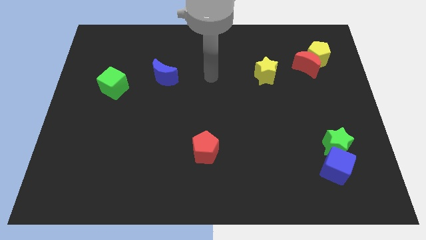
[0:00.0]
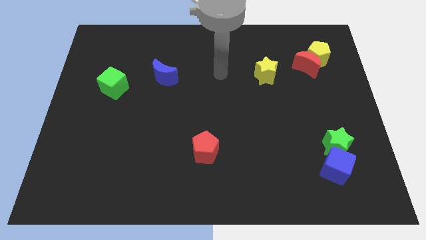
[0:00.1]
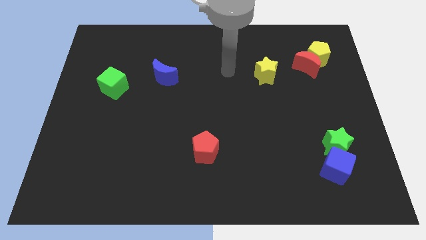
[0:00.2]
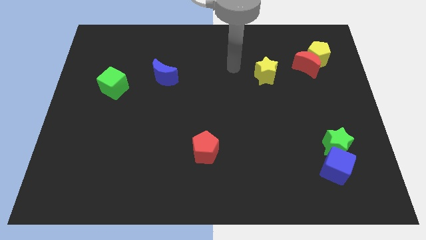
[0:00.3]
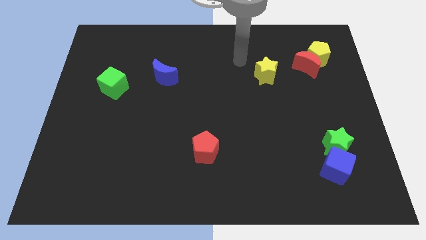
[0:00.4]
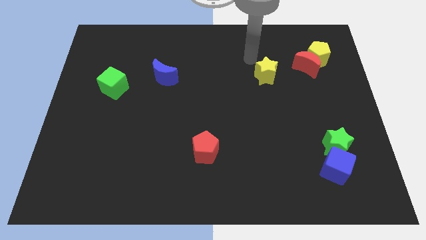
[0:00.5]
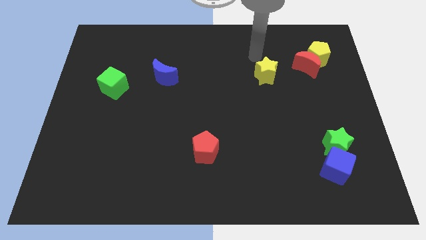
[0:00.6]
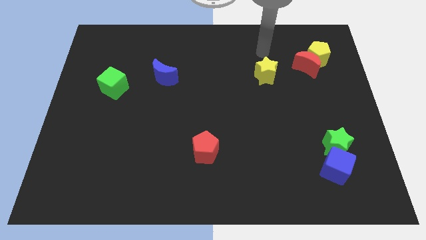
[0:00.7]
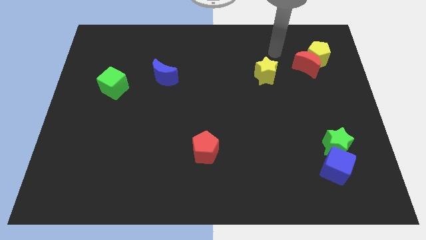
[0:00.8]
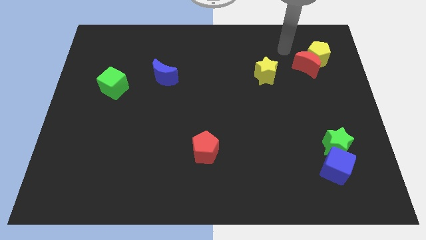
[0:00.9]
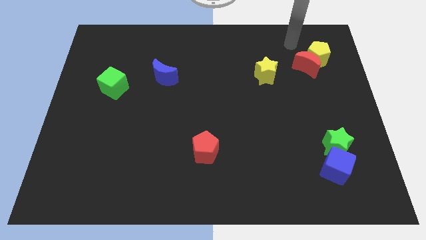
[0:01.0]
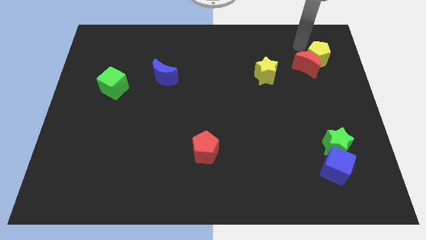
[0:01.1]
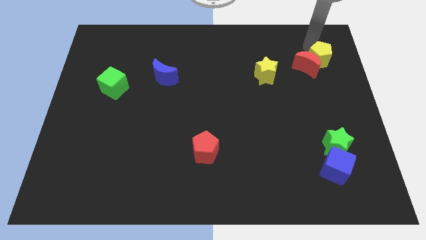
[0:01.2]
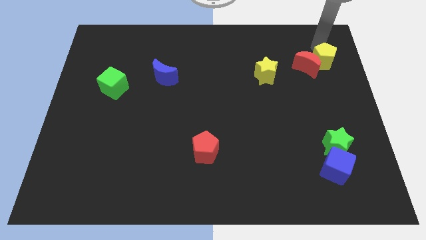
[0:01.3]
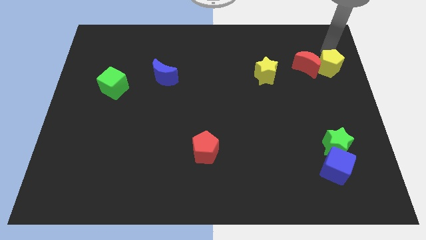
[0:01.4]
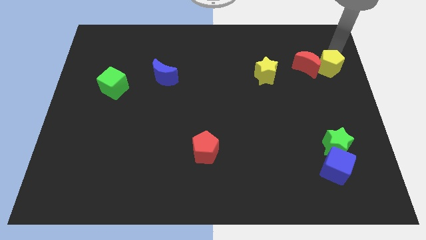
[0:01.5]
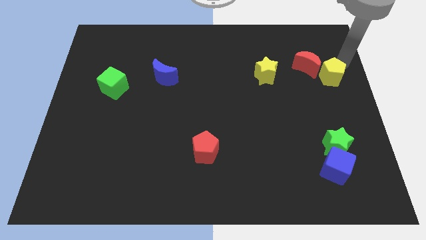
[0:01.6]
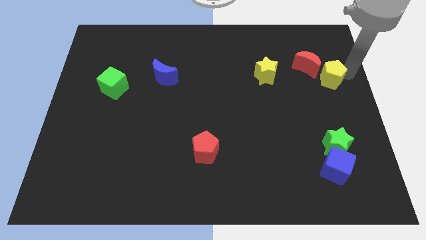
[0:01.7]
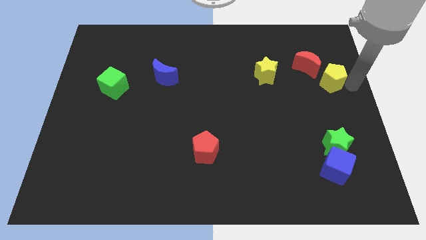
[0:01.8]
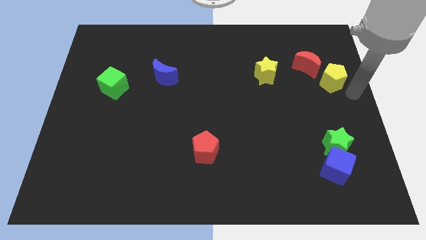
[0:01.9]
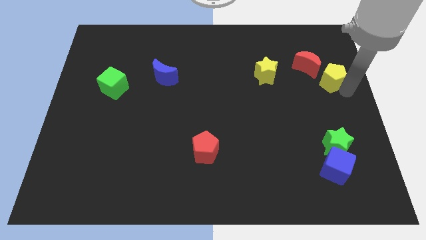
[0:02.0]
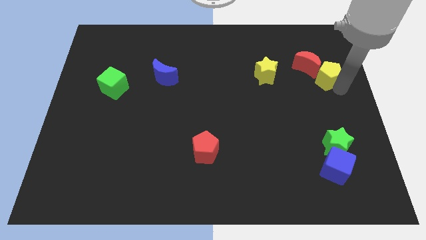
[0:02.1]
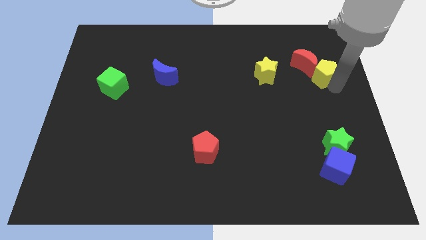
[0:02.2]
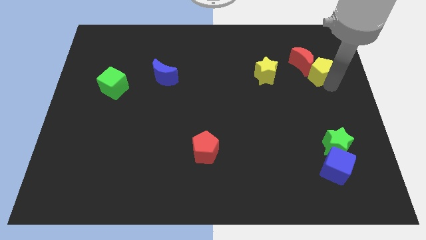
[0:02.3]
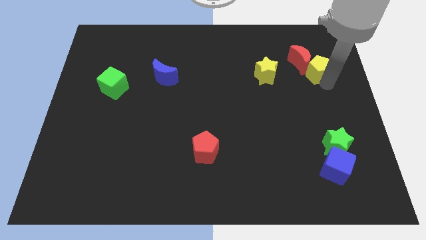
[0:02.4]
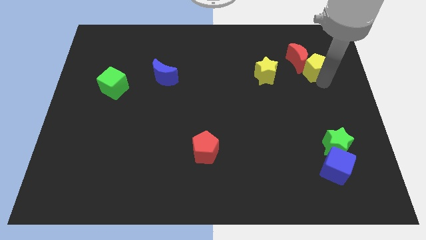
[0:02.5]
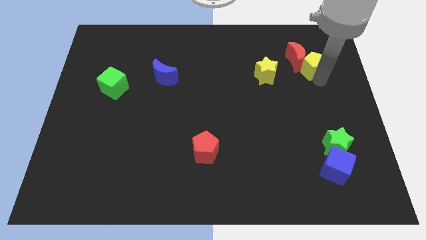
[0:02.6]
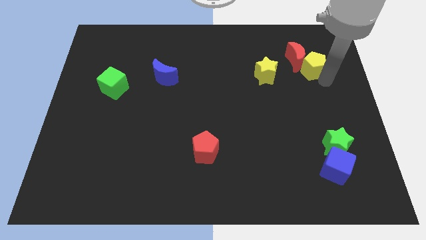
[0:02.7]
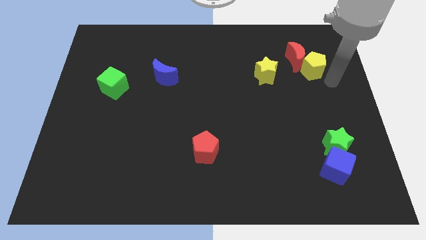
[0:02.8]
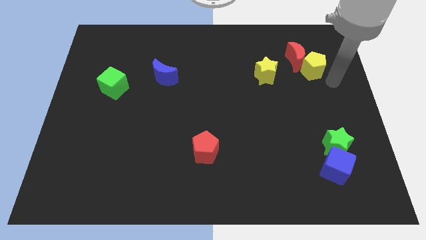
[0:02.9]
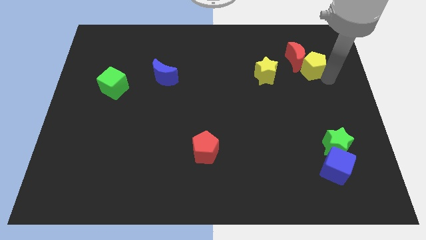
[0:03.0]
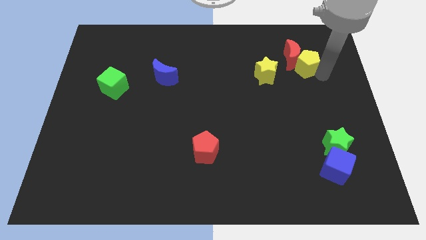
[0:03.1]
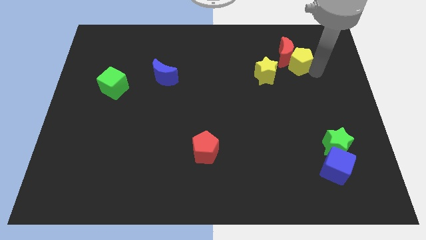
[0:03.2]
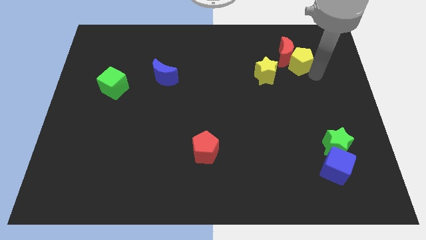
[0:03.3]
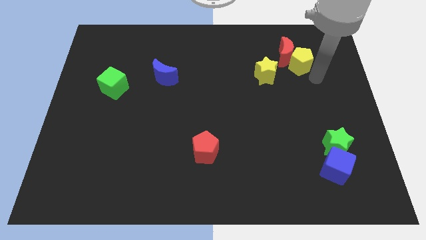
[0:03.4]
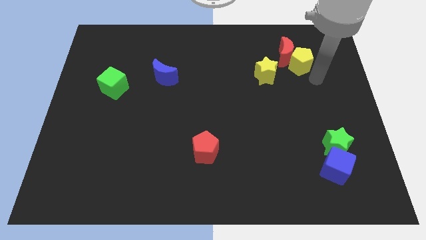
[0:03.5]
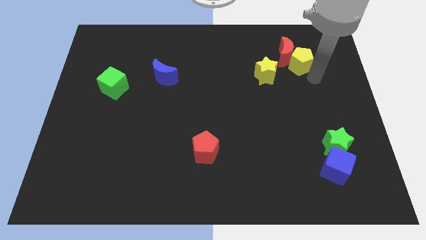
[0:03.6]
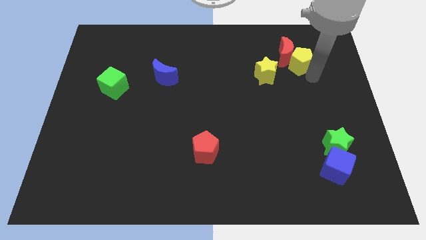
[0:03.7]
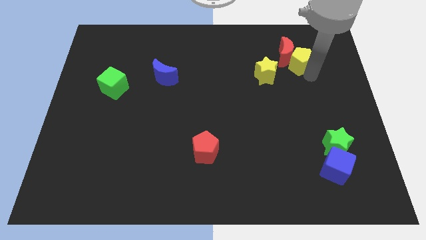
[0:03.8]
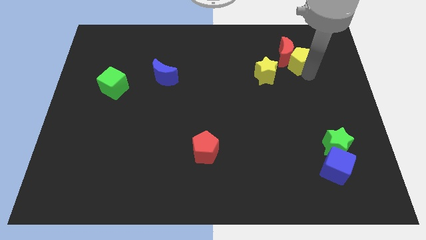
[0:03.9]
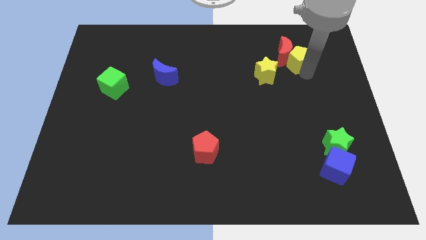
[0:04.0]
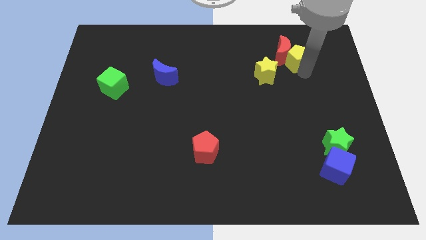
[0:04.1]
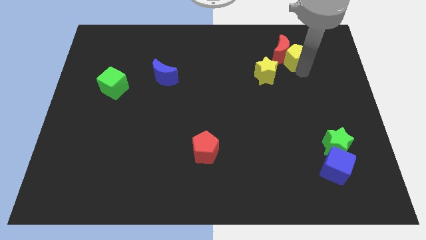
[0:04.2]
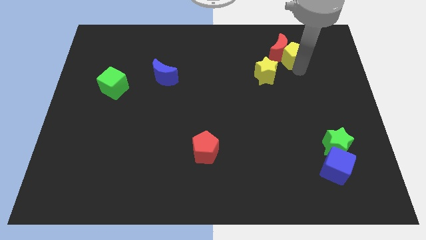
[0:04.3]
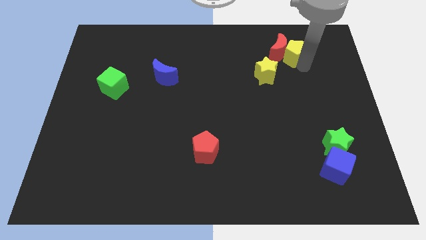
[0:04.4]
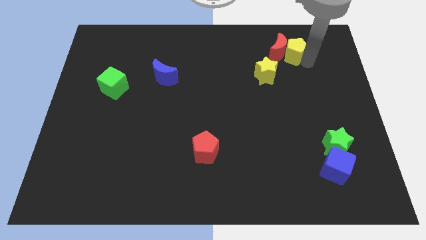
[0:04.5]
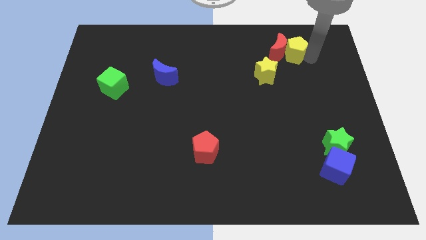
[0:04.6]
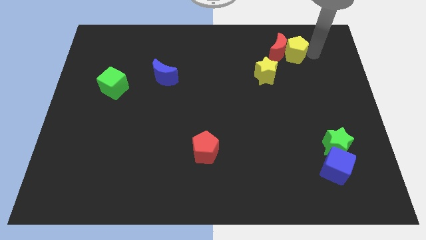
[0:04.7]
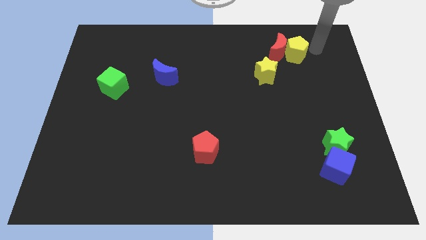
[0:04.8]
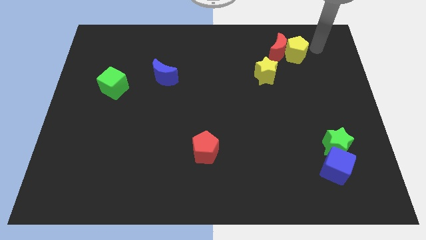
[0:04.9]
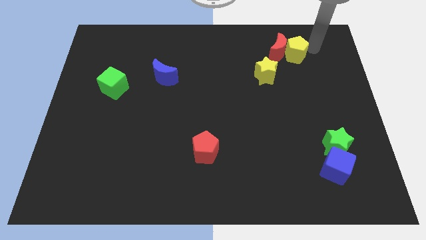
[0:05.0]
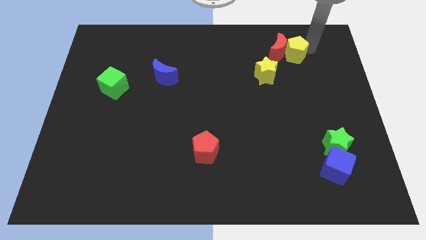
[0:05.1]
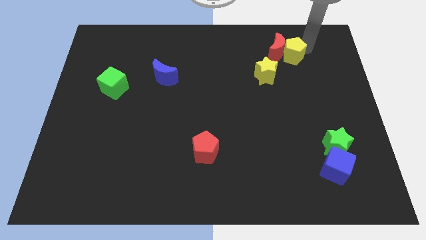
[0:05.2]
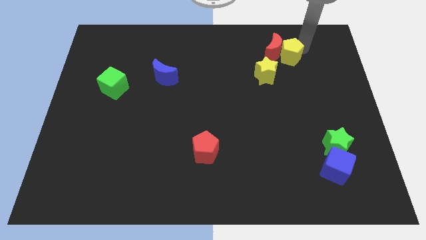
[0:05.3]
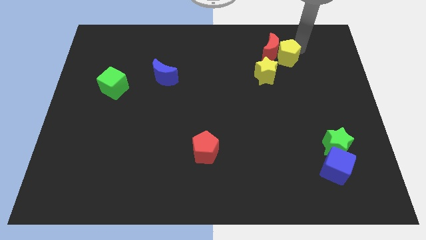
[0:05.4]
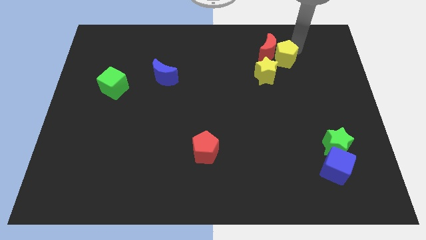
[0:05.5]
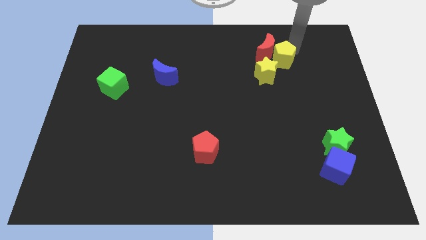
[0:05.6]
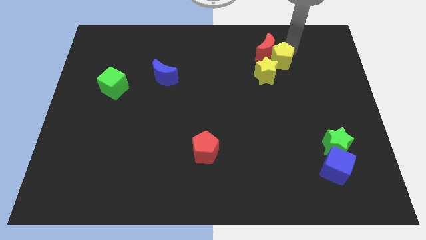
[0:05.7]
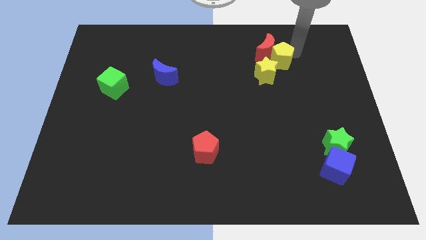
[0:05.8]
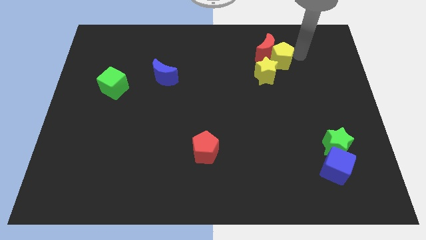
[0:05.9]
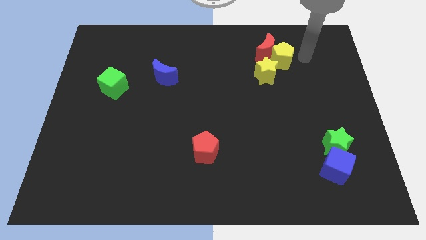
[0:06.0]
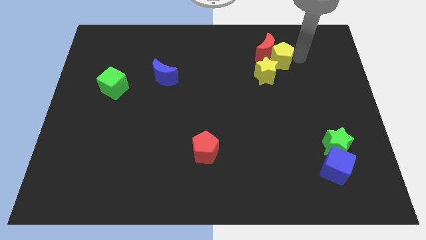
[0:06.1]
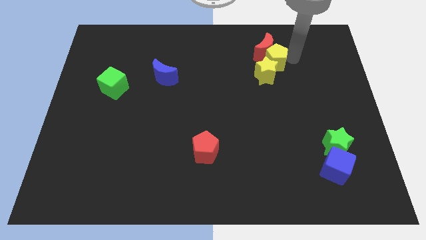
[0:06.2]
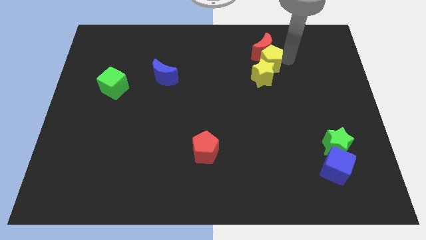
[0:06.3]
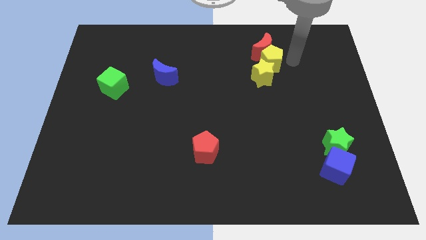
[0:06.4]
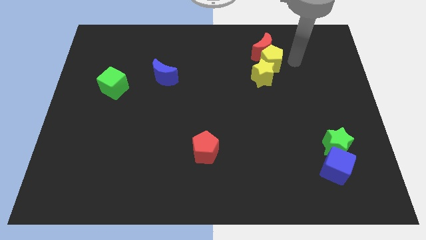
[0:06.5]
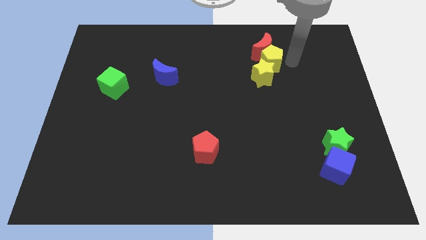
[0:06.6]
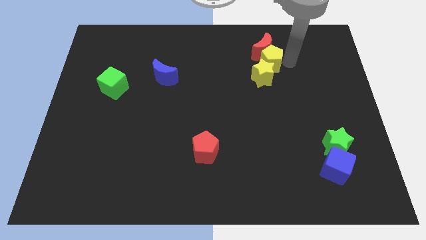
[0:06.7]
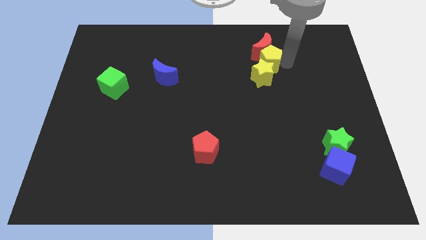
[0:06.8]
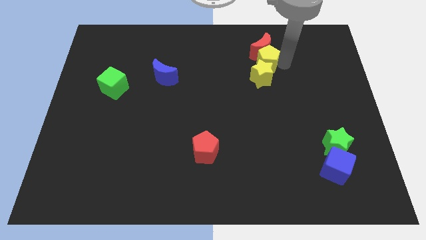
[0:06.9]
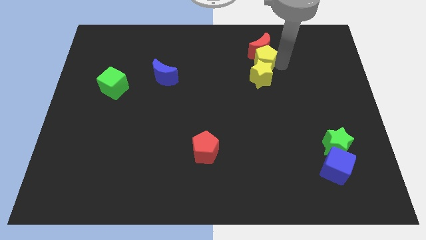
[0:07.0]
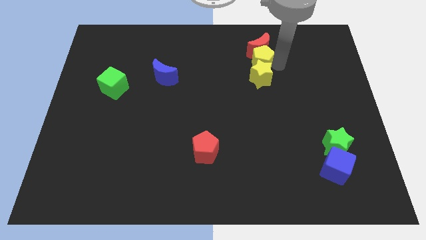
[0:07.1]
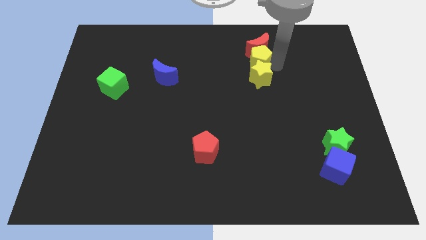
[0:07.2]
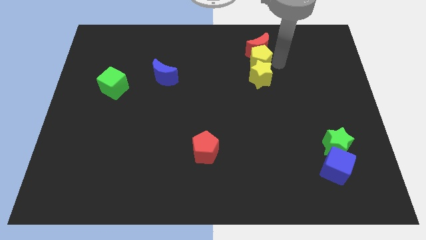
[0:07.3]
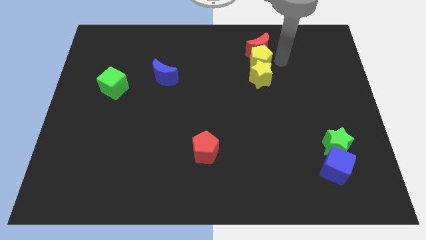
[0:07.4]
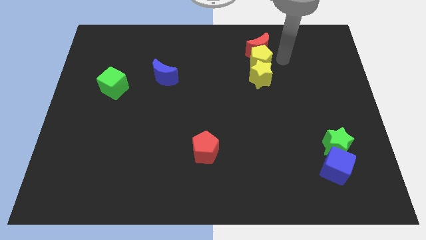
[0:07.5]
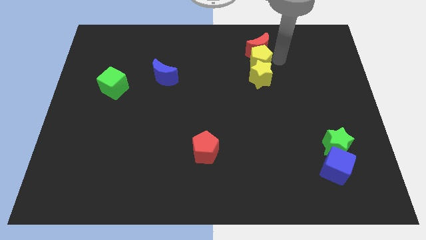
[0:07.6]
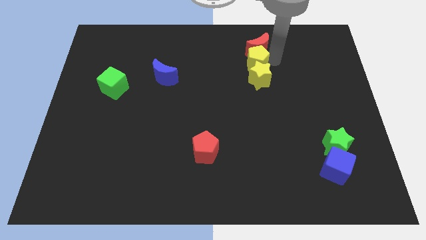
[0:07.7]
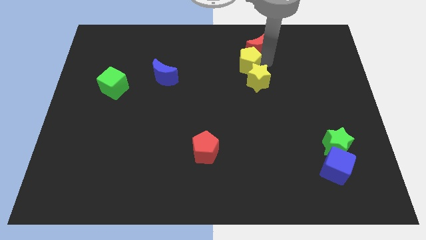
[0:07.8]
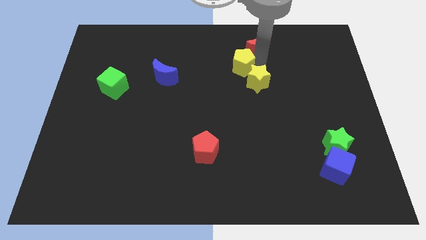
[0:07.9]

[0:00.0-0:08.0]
slide the yellow pentagon to the left
